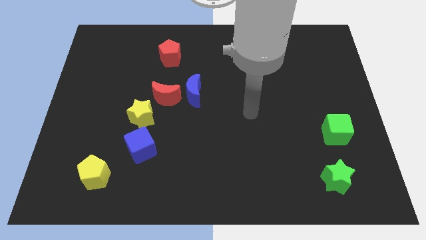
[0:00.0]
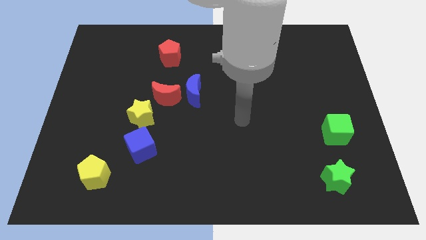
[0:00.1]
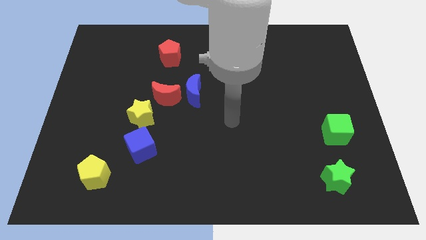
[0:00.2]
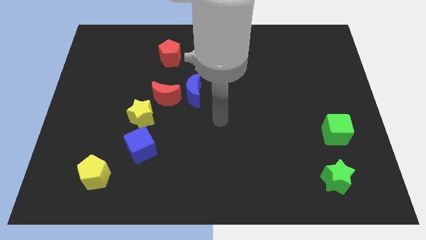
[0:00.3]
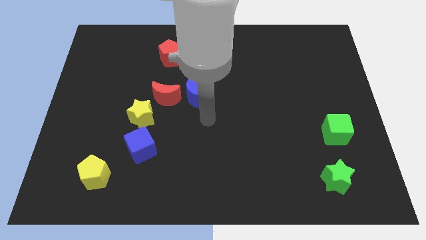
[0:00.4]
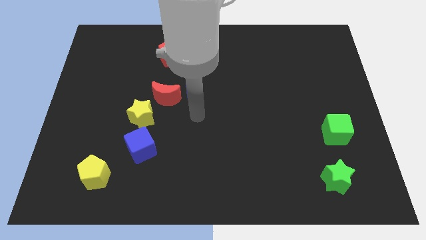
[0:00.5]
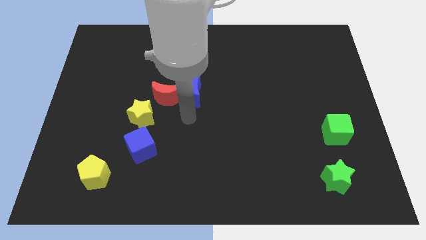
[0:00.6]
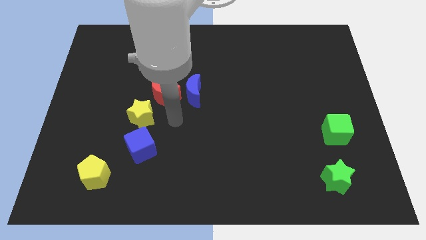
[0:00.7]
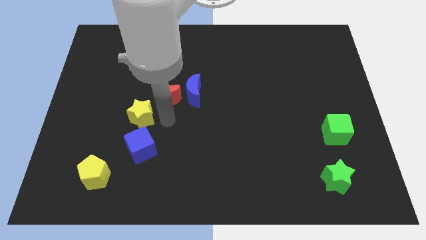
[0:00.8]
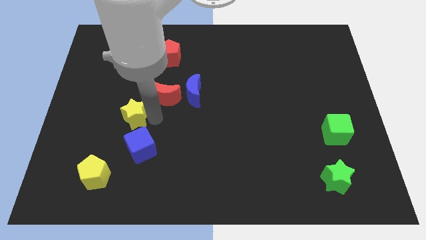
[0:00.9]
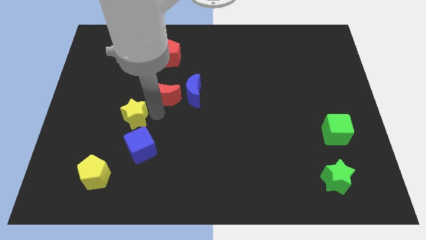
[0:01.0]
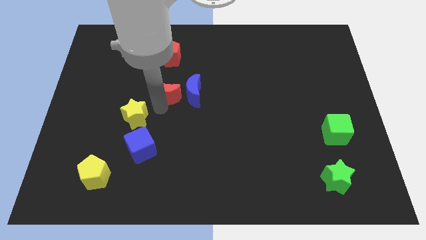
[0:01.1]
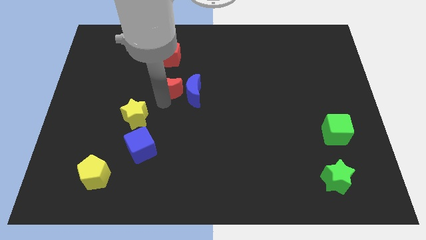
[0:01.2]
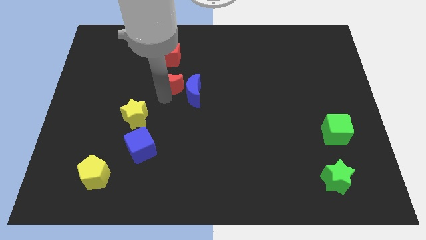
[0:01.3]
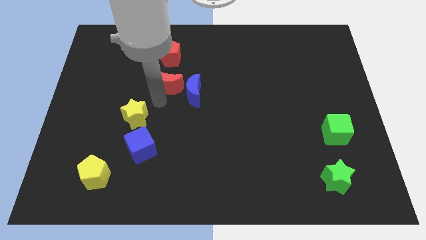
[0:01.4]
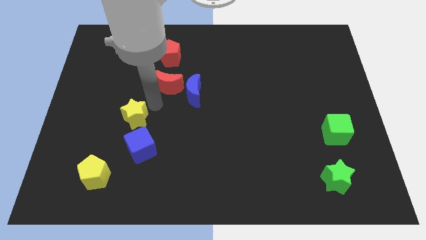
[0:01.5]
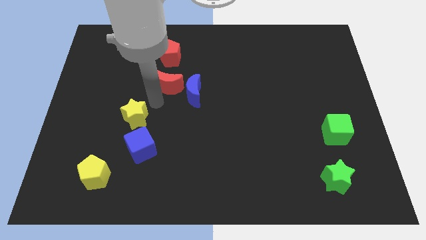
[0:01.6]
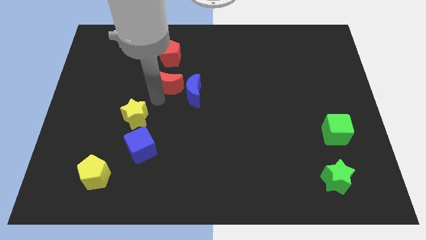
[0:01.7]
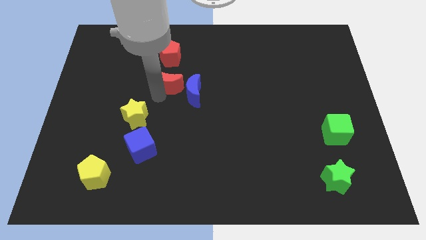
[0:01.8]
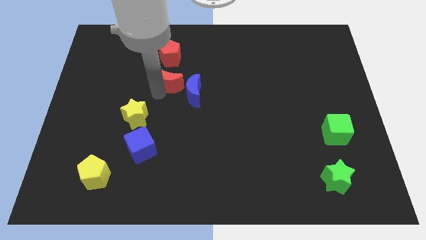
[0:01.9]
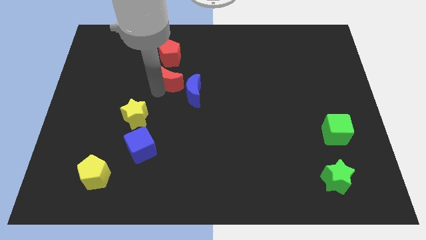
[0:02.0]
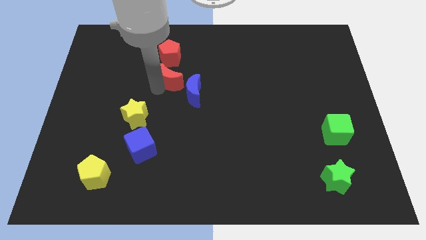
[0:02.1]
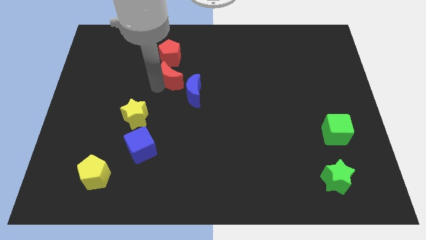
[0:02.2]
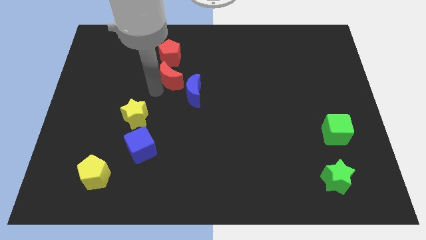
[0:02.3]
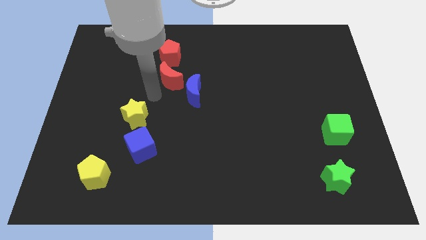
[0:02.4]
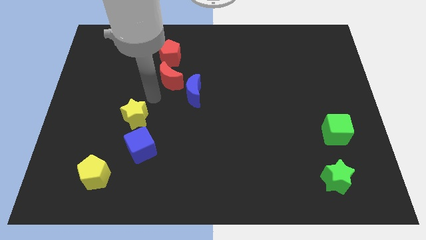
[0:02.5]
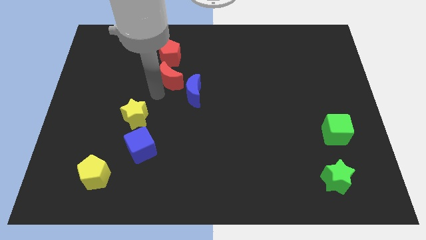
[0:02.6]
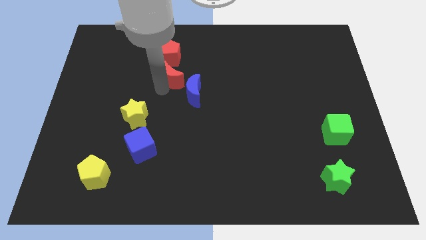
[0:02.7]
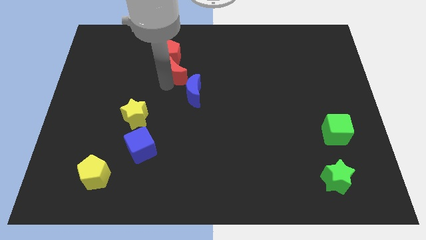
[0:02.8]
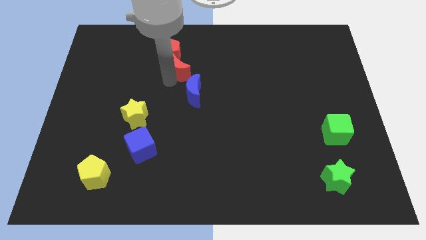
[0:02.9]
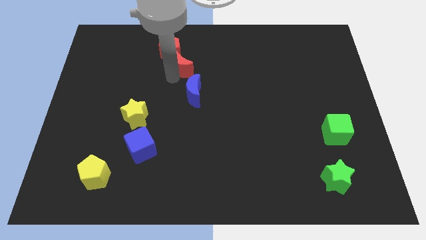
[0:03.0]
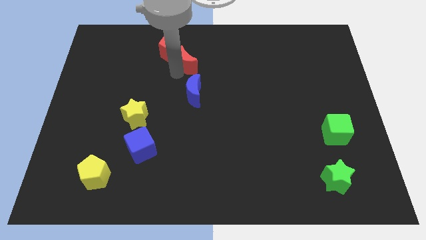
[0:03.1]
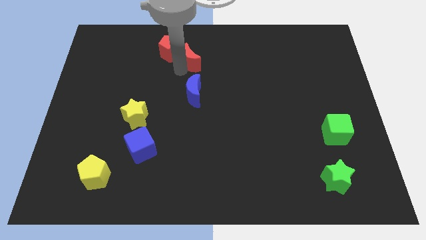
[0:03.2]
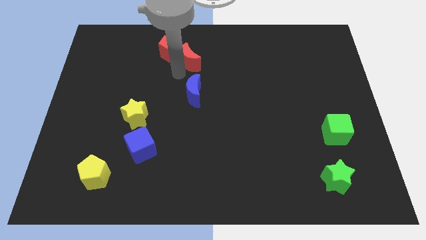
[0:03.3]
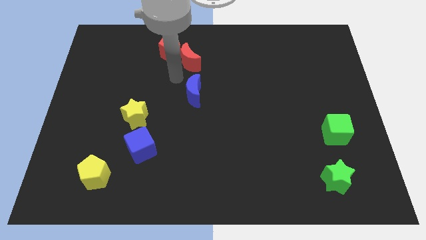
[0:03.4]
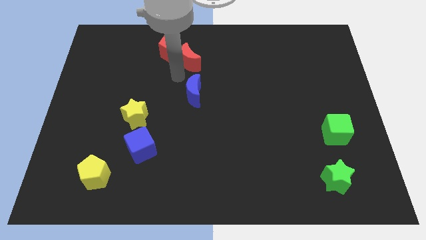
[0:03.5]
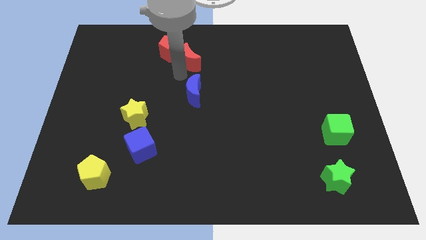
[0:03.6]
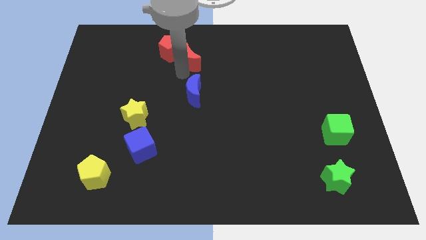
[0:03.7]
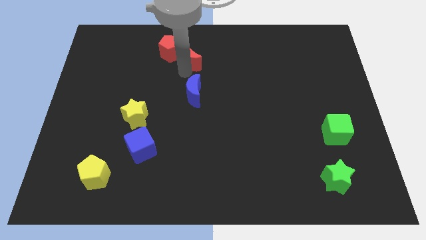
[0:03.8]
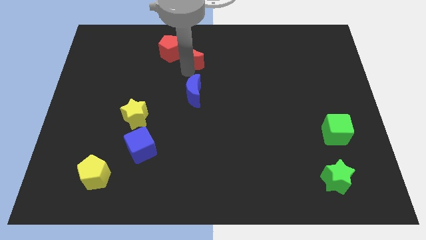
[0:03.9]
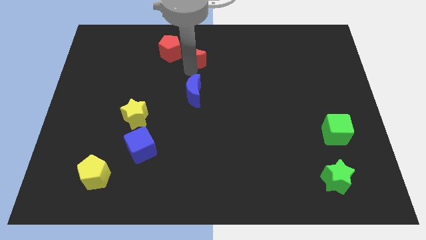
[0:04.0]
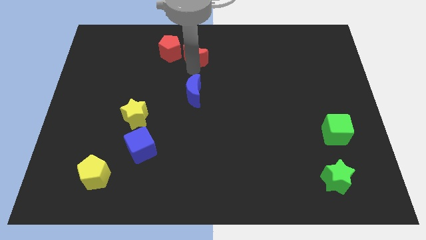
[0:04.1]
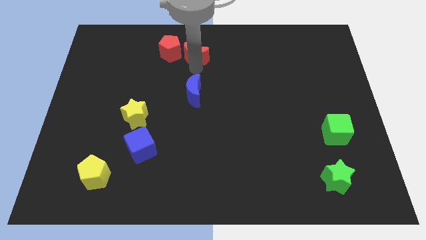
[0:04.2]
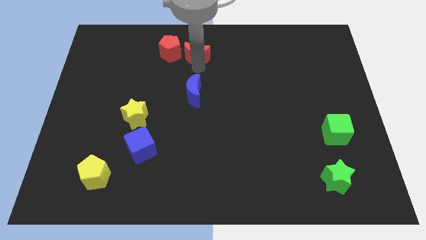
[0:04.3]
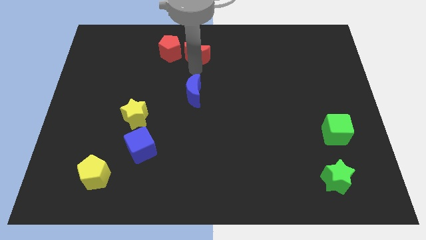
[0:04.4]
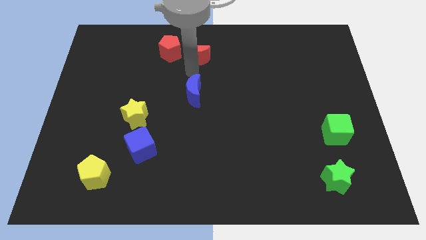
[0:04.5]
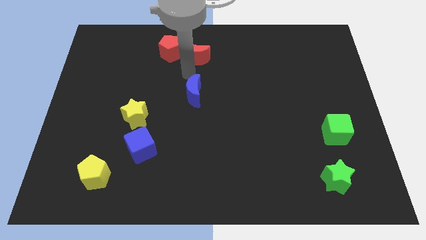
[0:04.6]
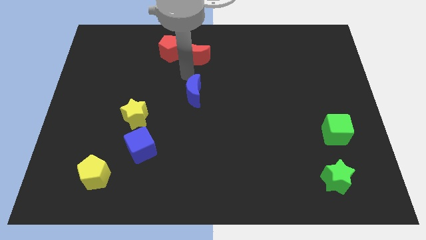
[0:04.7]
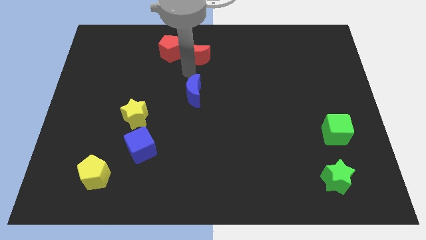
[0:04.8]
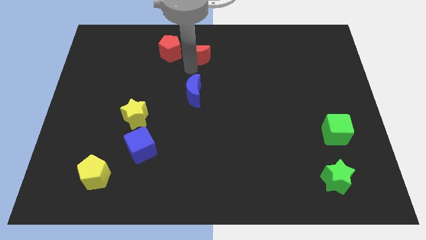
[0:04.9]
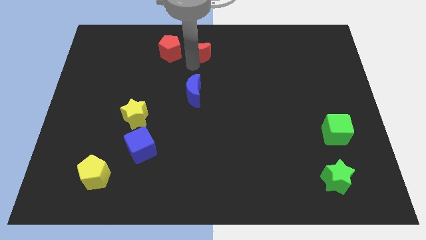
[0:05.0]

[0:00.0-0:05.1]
slide the red moon to the top

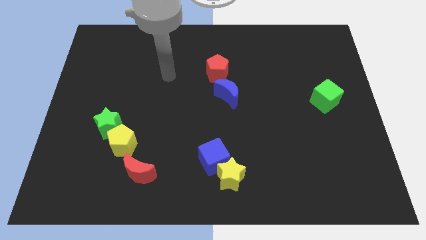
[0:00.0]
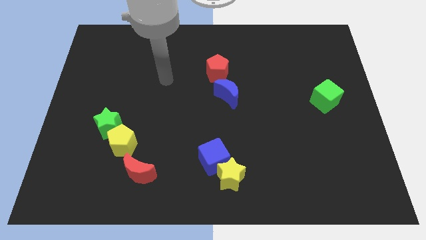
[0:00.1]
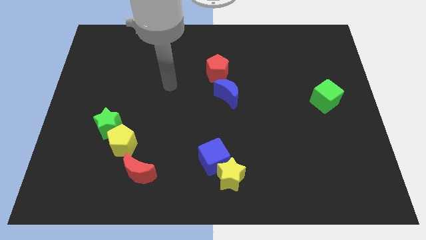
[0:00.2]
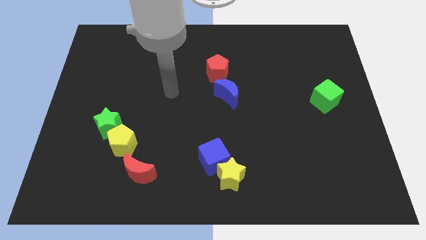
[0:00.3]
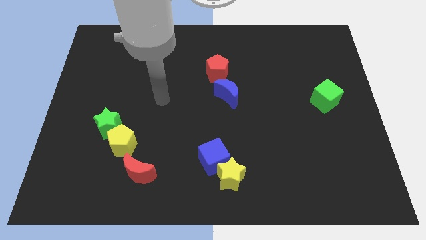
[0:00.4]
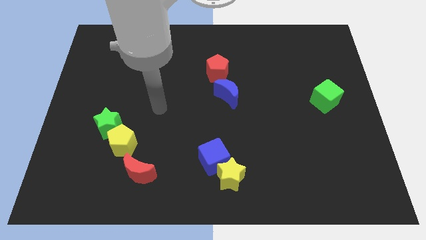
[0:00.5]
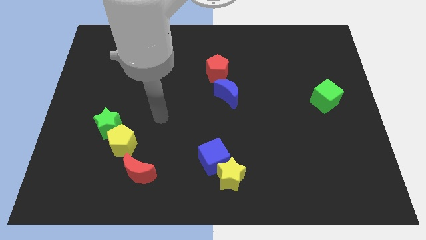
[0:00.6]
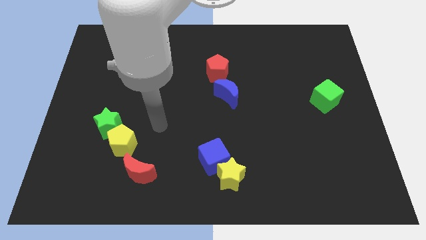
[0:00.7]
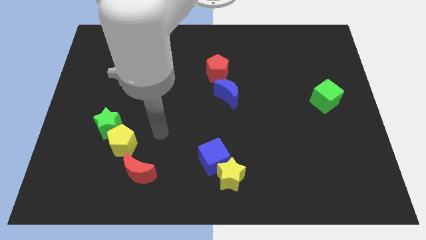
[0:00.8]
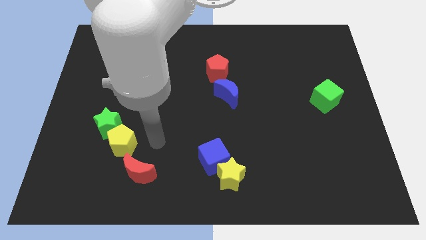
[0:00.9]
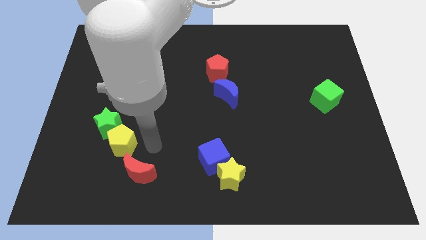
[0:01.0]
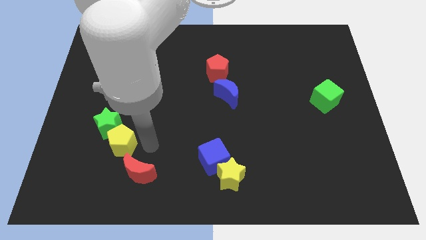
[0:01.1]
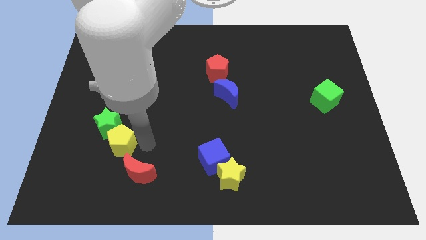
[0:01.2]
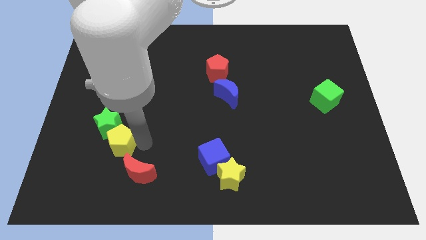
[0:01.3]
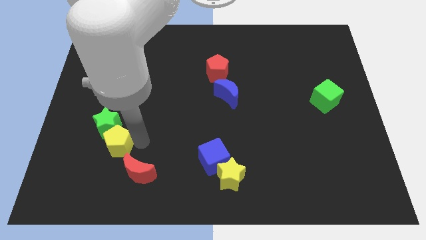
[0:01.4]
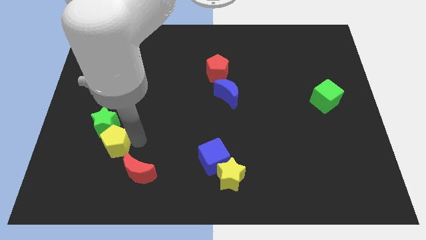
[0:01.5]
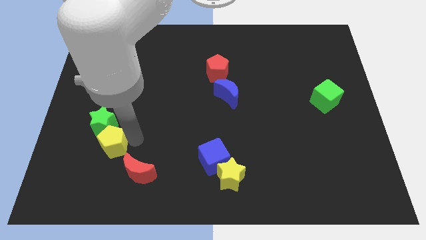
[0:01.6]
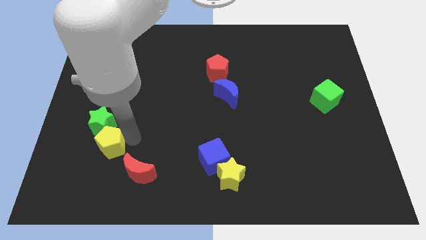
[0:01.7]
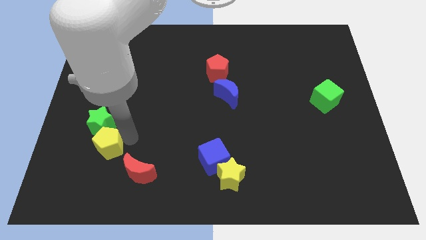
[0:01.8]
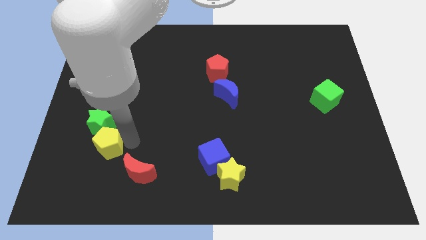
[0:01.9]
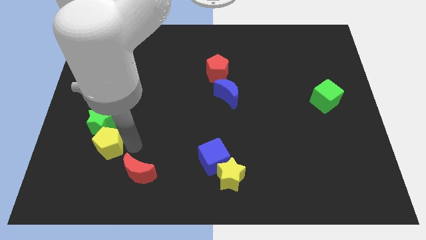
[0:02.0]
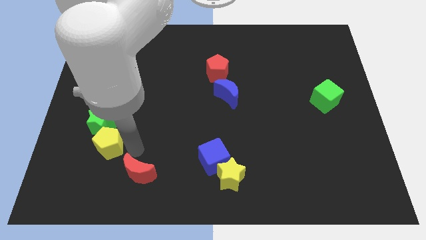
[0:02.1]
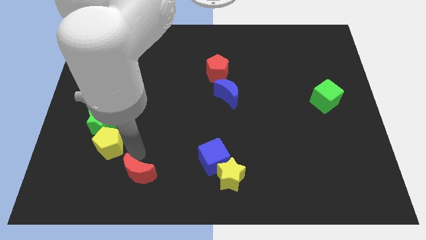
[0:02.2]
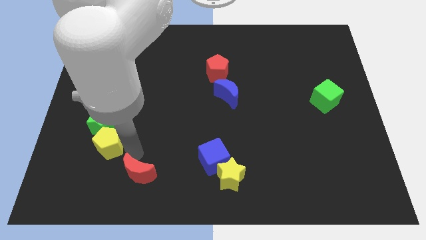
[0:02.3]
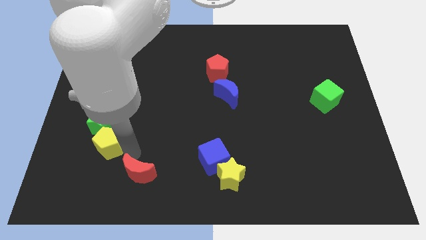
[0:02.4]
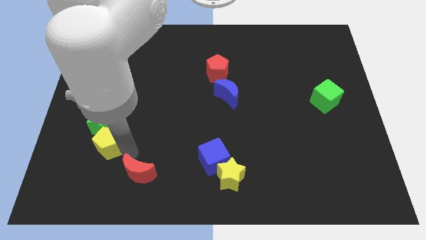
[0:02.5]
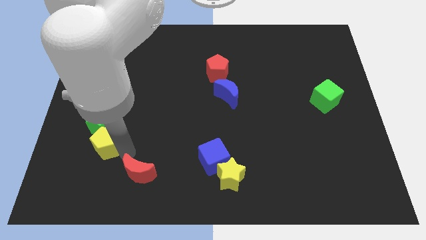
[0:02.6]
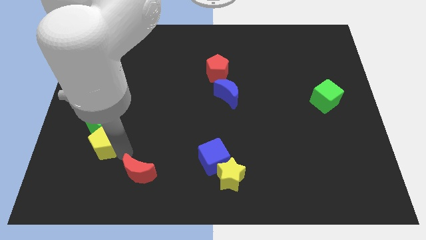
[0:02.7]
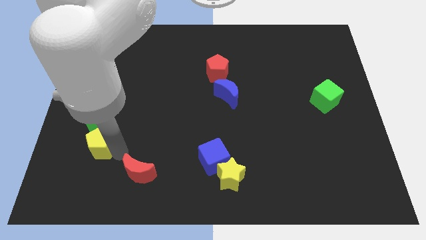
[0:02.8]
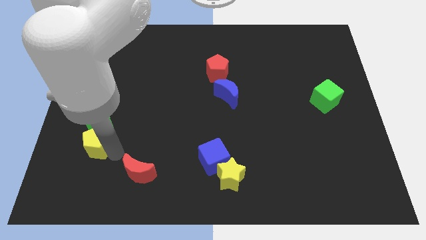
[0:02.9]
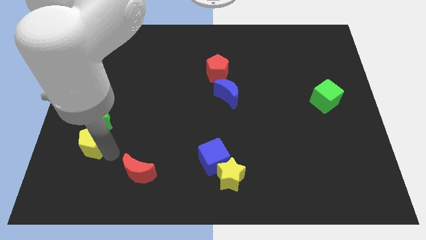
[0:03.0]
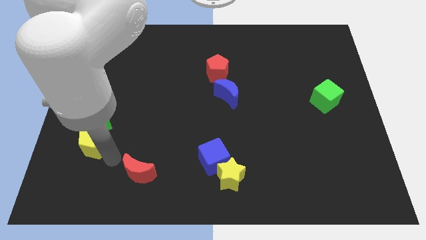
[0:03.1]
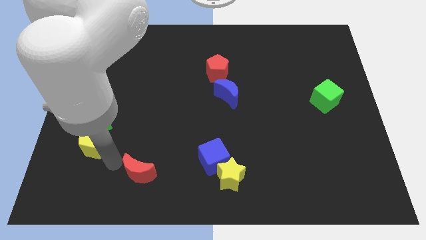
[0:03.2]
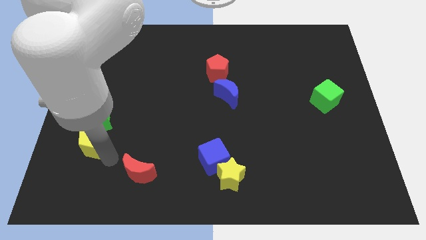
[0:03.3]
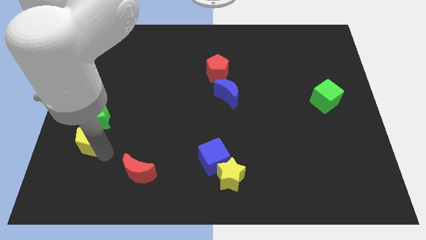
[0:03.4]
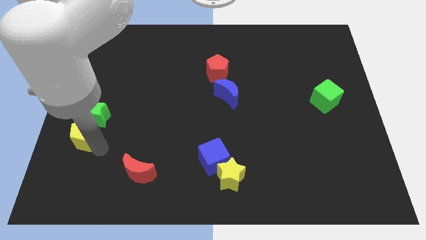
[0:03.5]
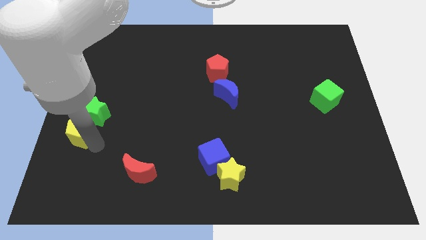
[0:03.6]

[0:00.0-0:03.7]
put the yellow pentagon to the left side of the board
